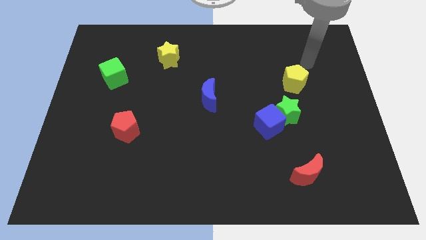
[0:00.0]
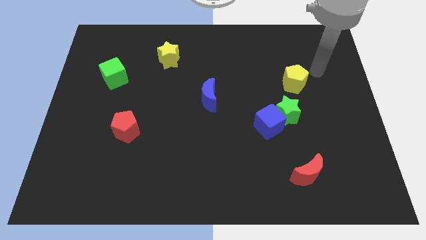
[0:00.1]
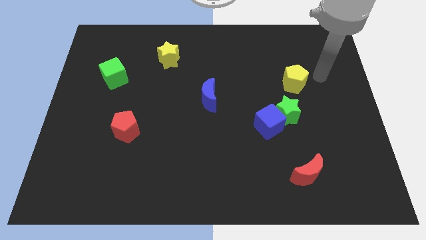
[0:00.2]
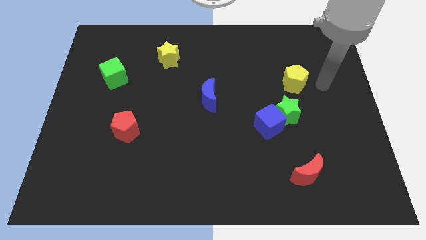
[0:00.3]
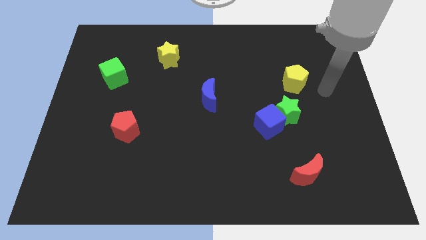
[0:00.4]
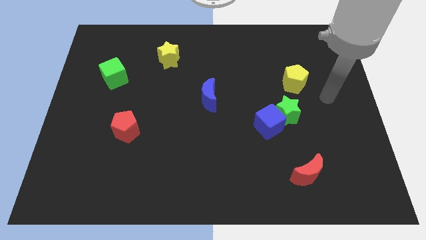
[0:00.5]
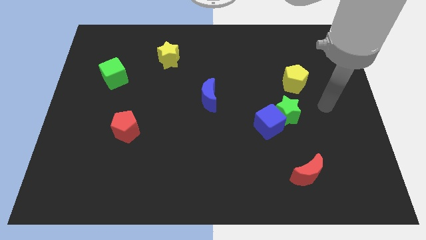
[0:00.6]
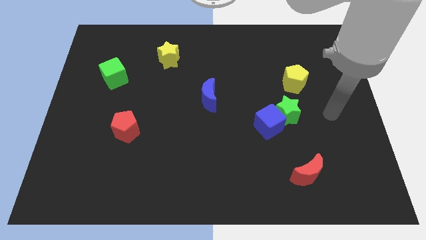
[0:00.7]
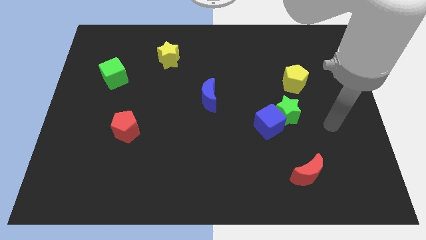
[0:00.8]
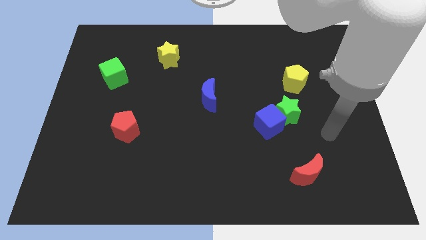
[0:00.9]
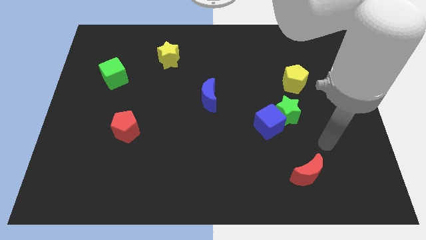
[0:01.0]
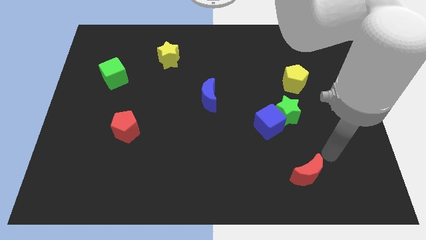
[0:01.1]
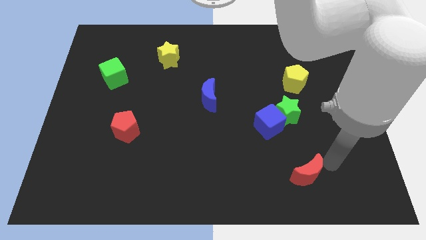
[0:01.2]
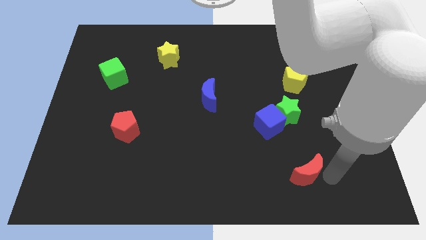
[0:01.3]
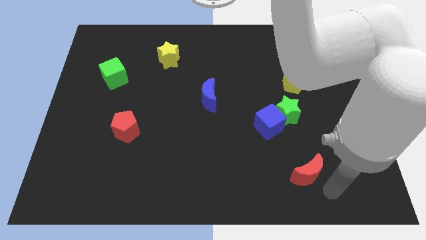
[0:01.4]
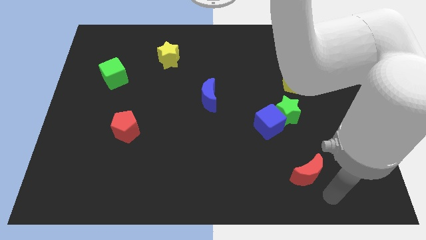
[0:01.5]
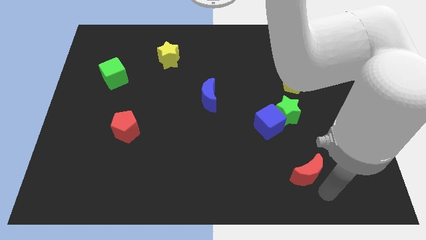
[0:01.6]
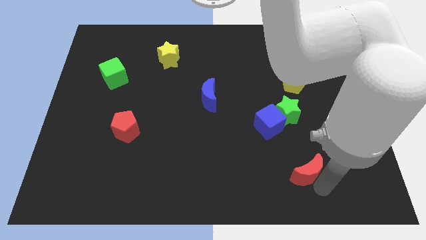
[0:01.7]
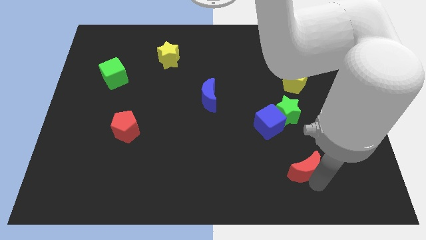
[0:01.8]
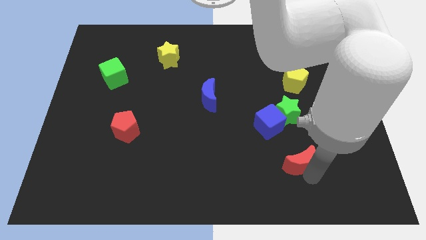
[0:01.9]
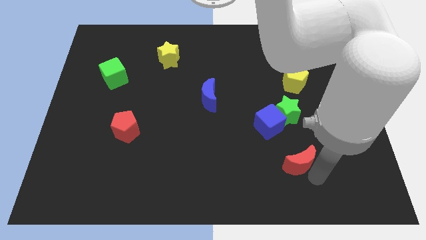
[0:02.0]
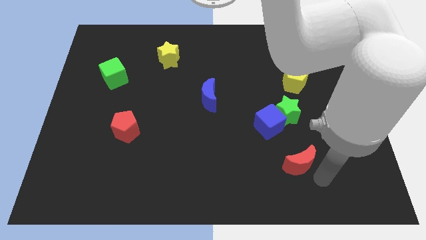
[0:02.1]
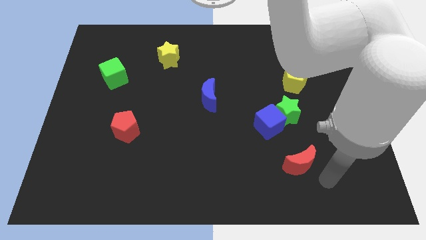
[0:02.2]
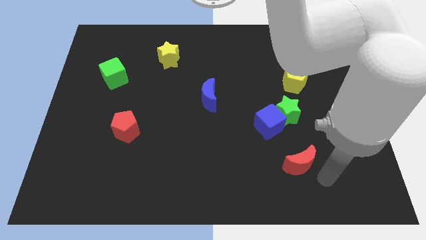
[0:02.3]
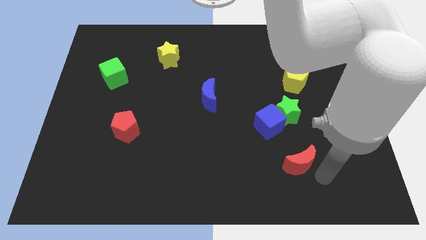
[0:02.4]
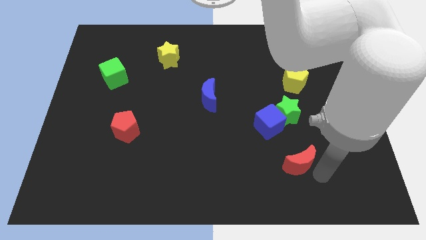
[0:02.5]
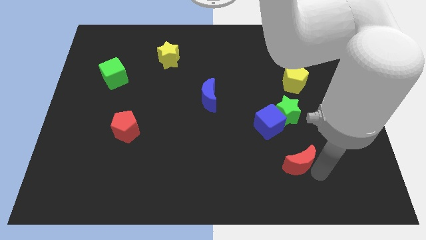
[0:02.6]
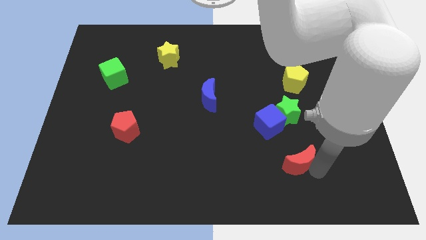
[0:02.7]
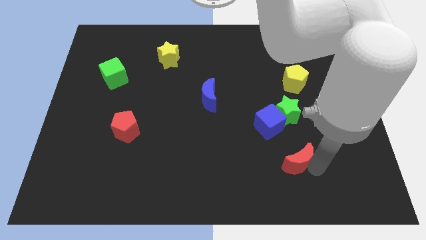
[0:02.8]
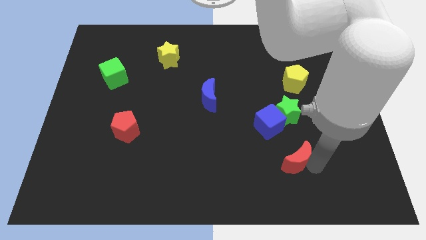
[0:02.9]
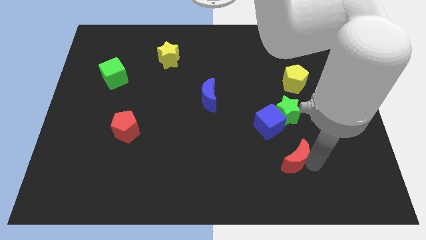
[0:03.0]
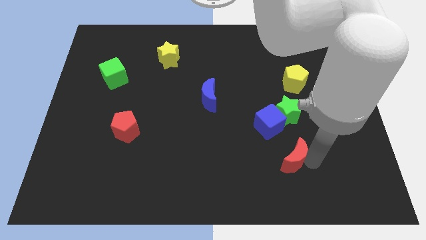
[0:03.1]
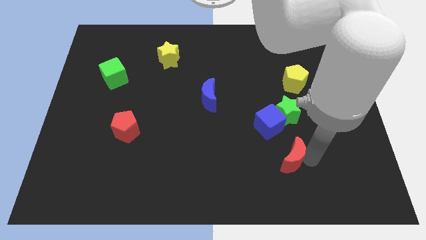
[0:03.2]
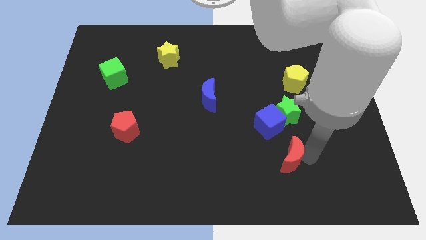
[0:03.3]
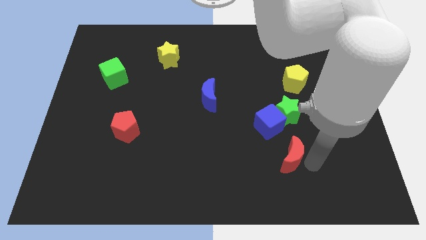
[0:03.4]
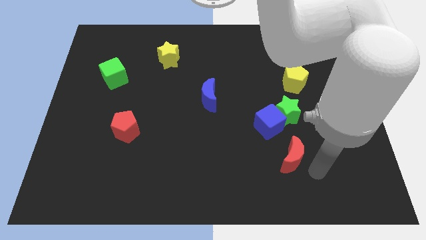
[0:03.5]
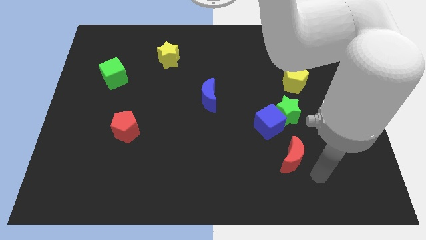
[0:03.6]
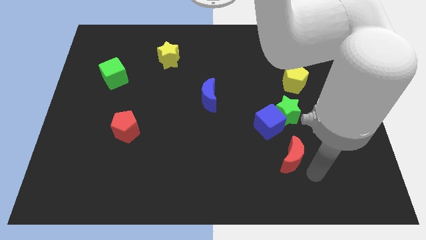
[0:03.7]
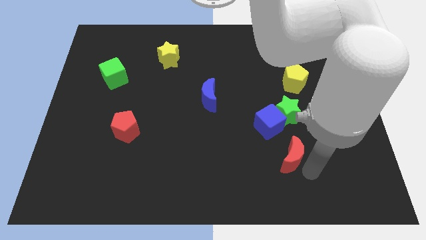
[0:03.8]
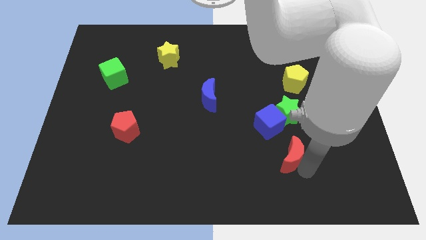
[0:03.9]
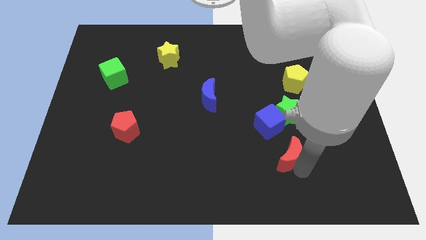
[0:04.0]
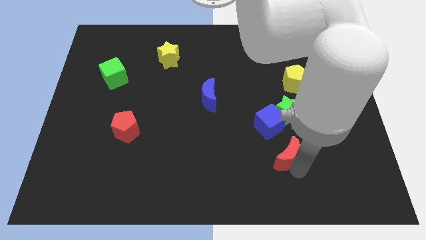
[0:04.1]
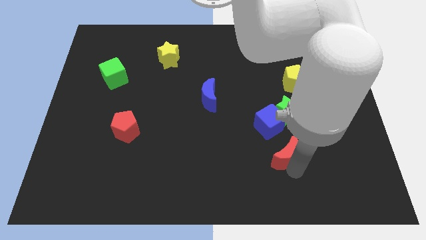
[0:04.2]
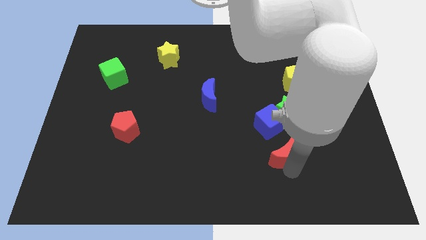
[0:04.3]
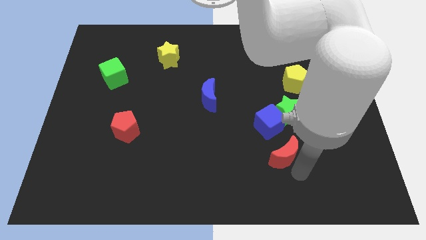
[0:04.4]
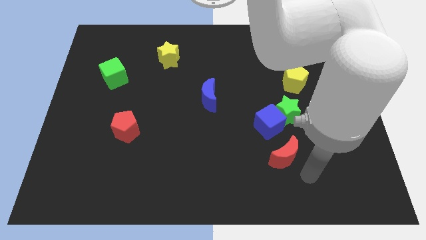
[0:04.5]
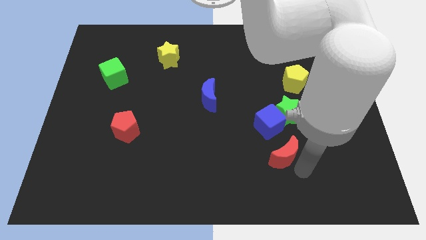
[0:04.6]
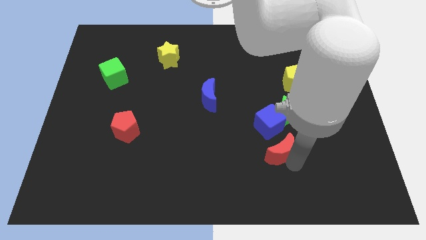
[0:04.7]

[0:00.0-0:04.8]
push the red moon upwards and then to the left a little bit

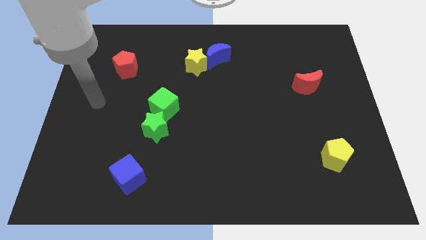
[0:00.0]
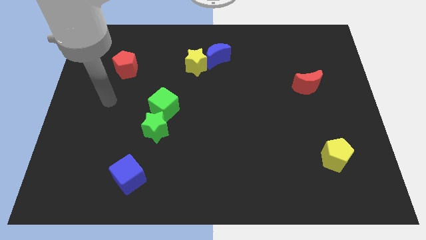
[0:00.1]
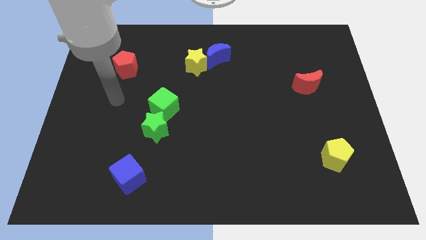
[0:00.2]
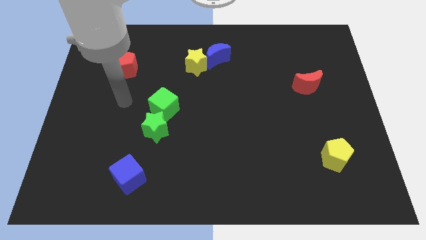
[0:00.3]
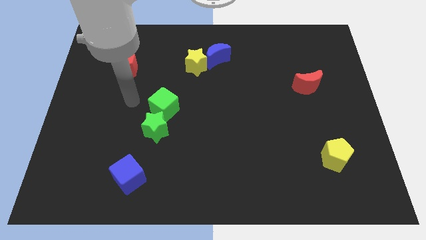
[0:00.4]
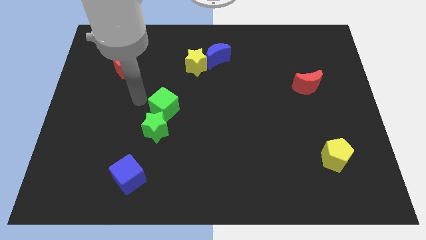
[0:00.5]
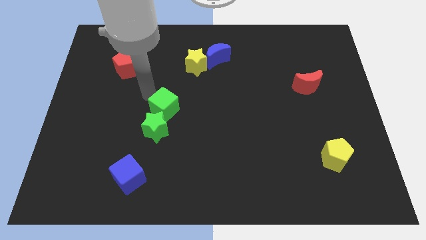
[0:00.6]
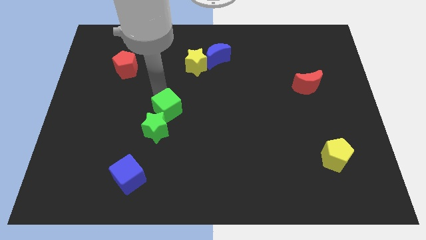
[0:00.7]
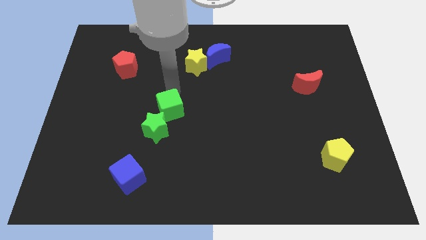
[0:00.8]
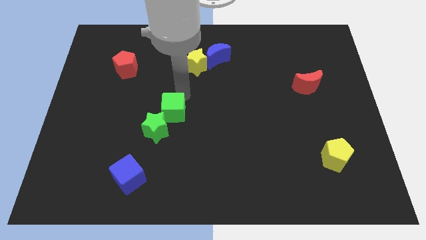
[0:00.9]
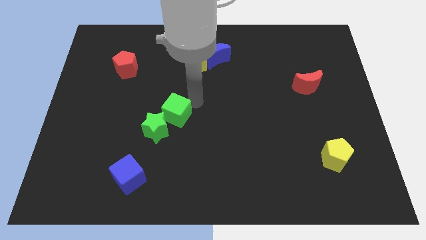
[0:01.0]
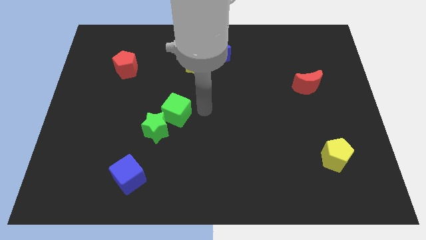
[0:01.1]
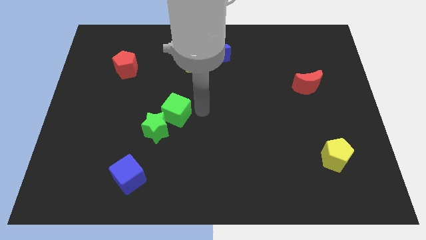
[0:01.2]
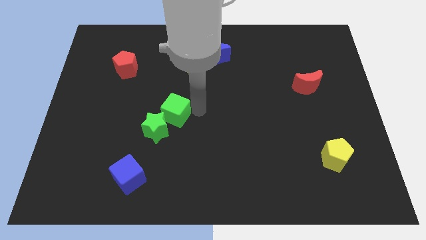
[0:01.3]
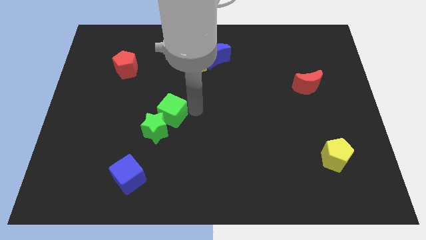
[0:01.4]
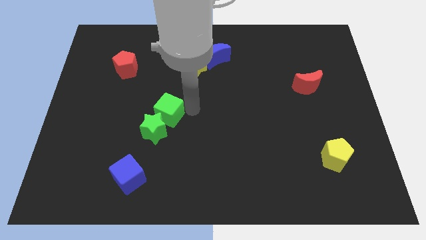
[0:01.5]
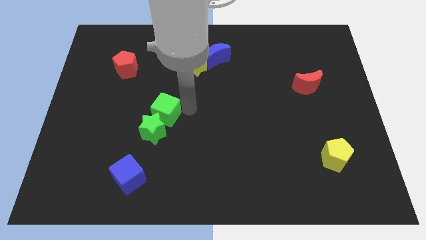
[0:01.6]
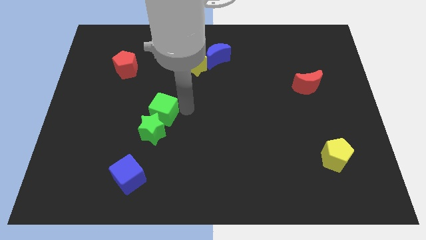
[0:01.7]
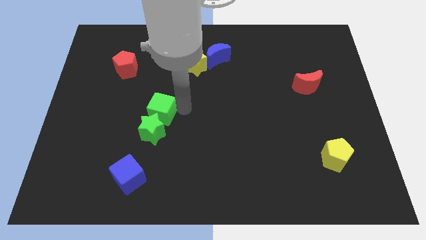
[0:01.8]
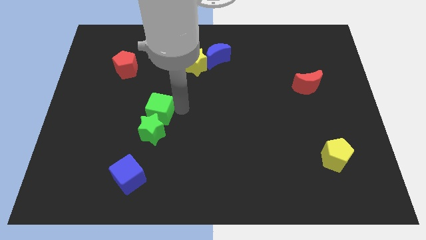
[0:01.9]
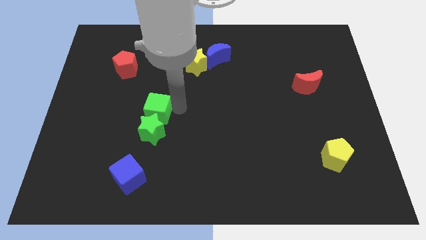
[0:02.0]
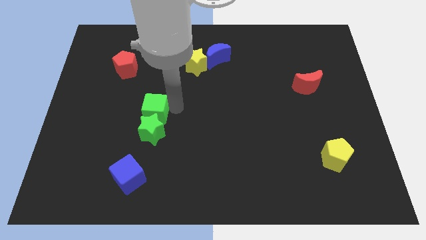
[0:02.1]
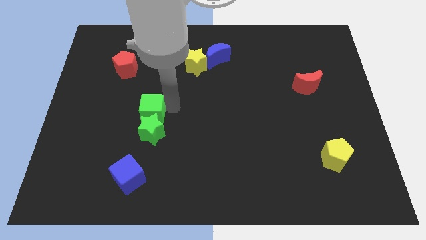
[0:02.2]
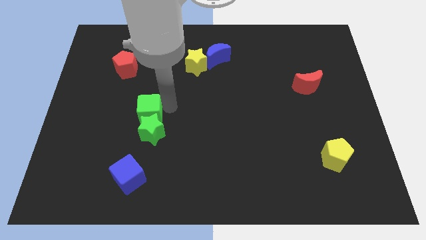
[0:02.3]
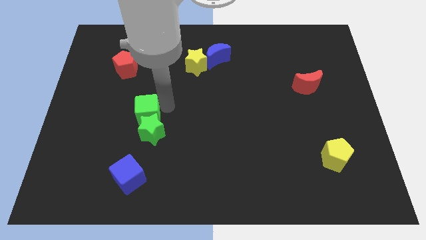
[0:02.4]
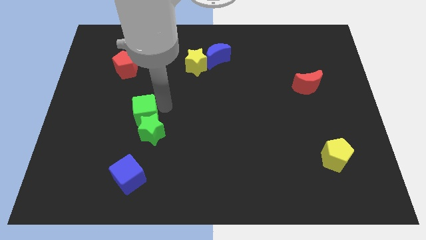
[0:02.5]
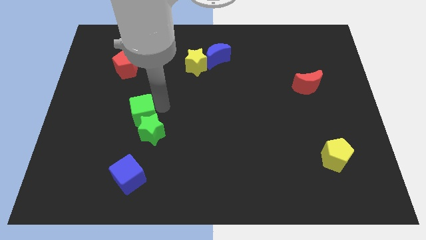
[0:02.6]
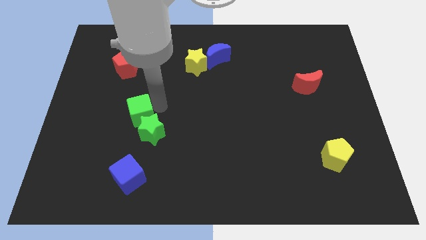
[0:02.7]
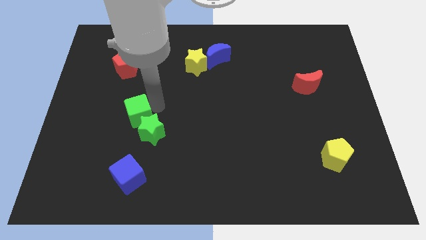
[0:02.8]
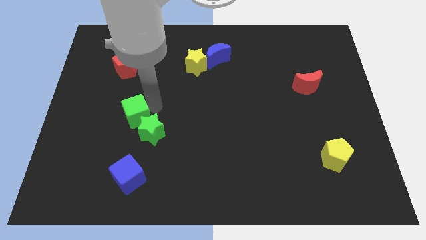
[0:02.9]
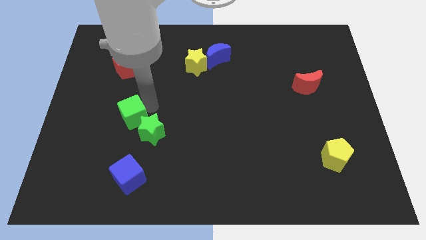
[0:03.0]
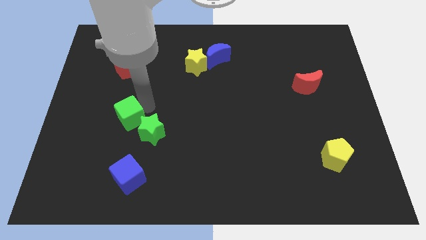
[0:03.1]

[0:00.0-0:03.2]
move the green cube slightly downwards and to the left diagonally

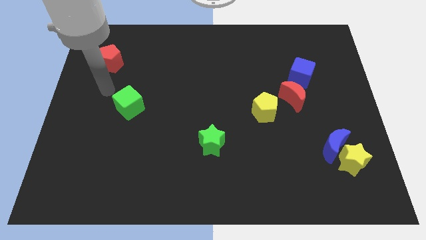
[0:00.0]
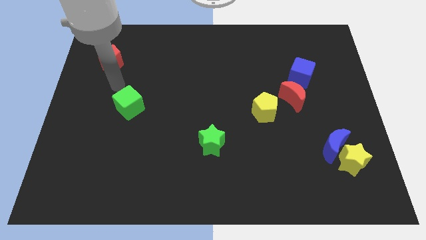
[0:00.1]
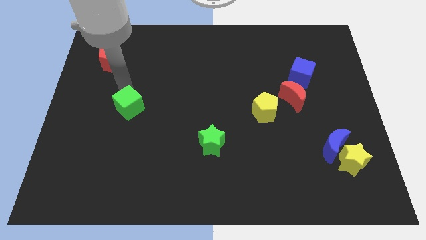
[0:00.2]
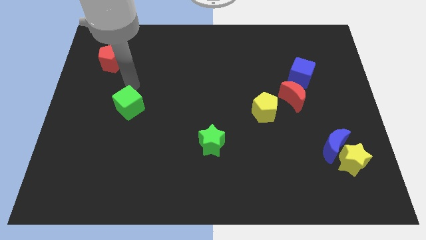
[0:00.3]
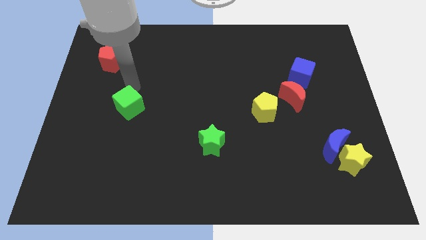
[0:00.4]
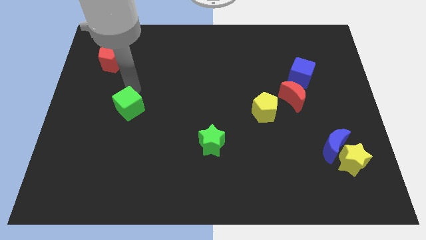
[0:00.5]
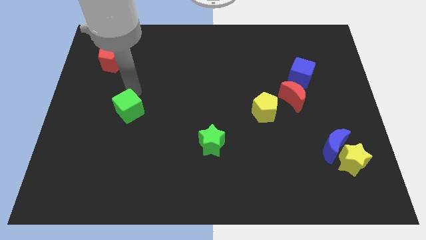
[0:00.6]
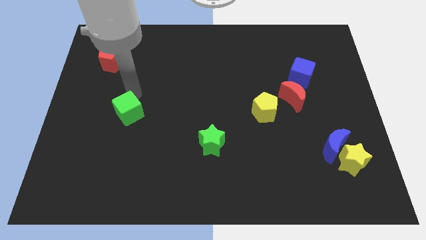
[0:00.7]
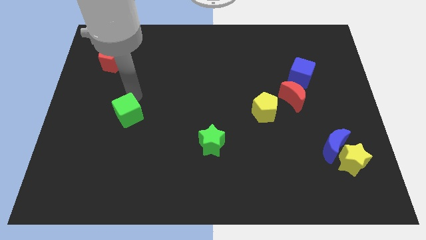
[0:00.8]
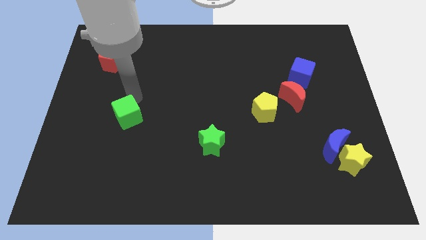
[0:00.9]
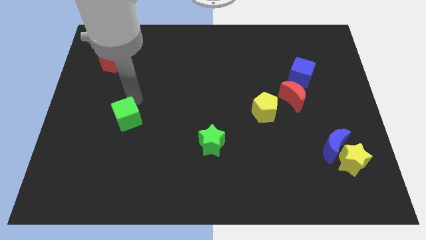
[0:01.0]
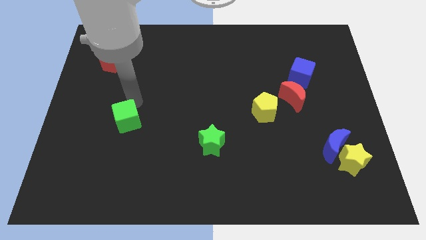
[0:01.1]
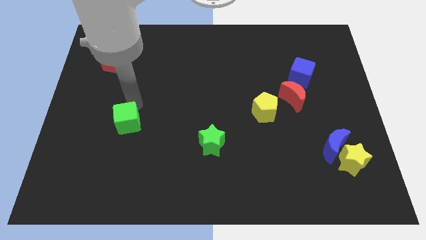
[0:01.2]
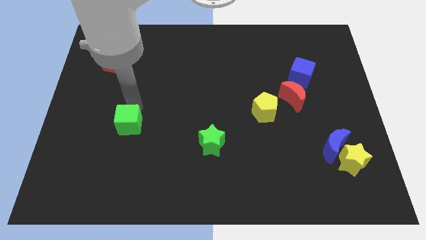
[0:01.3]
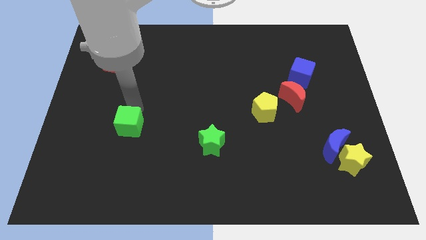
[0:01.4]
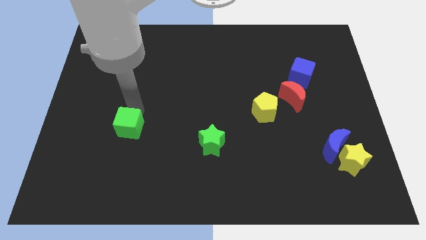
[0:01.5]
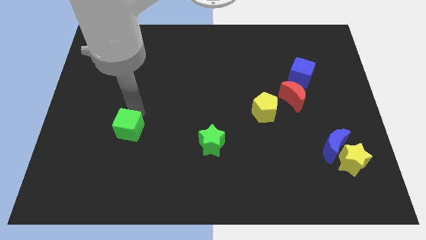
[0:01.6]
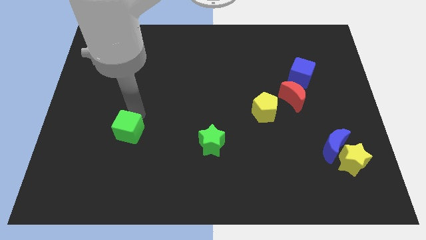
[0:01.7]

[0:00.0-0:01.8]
slide the green cube a little downwards
